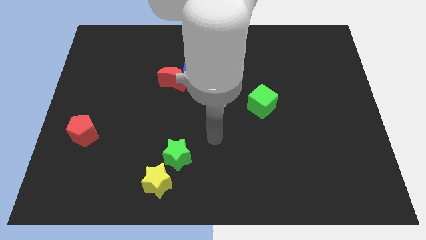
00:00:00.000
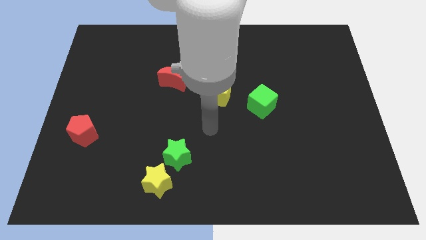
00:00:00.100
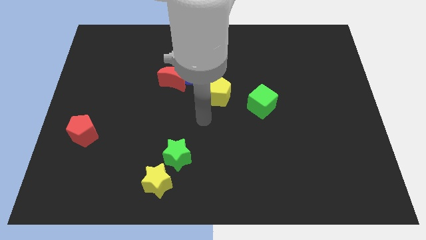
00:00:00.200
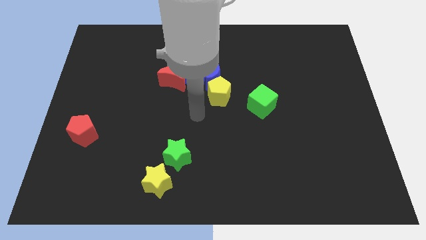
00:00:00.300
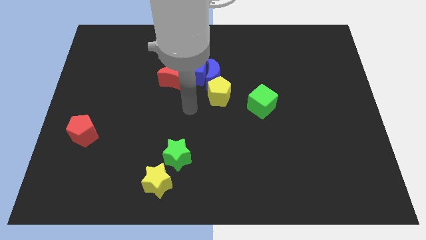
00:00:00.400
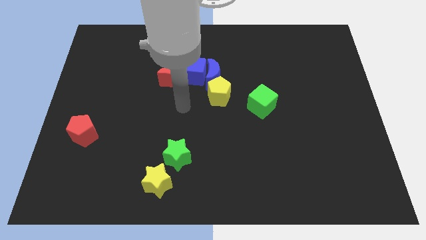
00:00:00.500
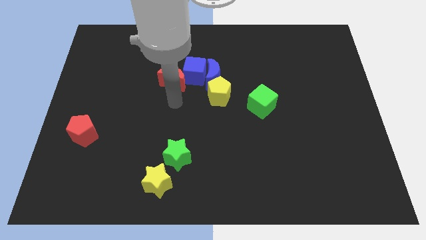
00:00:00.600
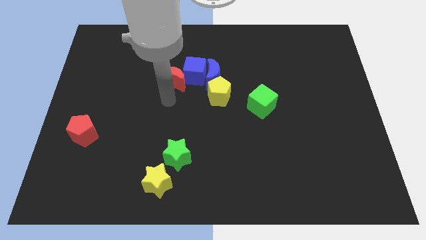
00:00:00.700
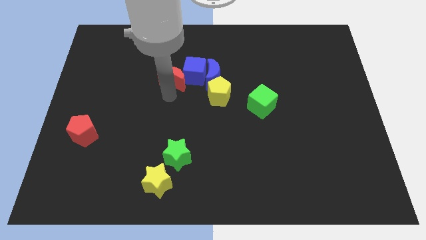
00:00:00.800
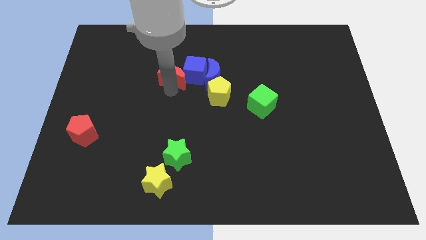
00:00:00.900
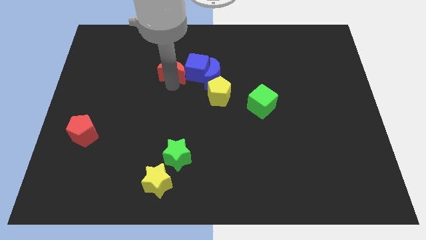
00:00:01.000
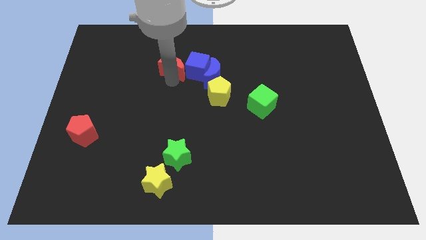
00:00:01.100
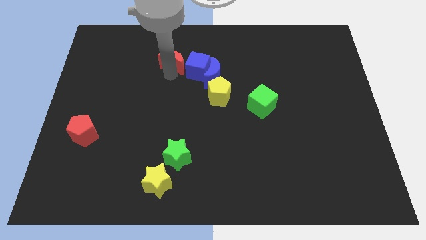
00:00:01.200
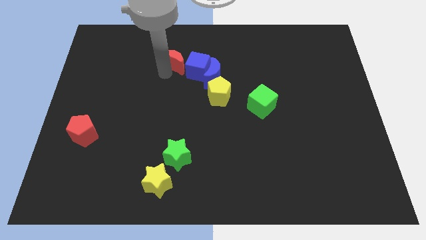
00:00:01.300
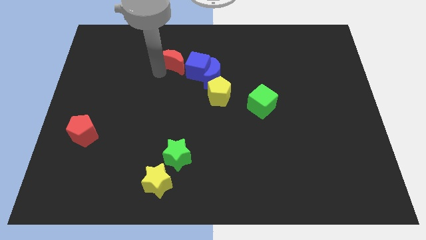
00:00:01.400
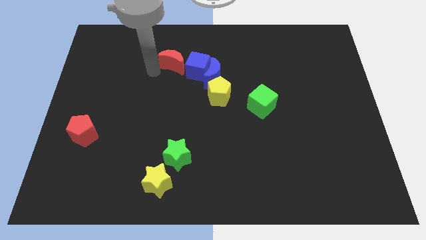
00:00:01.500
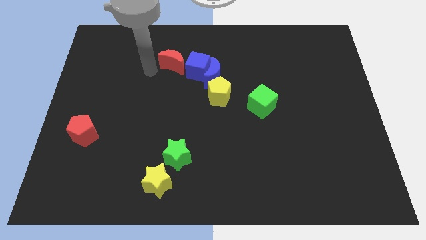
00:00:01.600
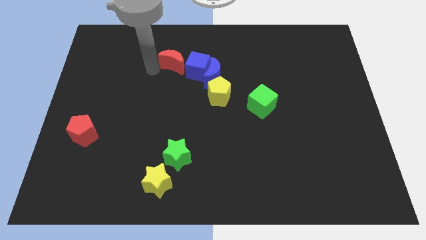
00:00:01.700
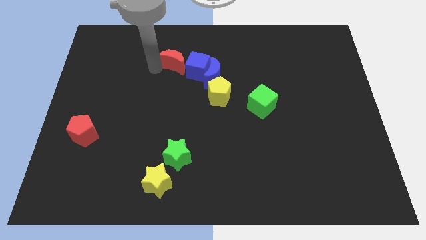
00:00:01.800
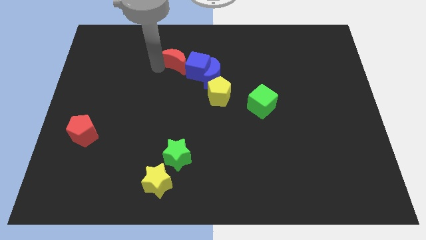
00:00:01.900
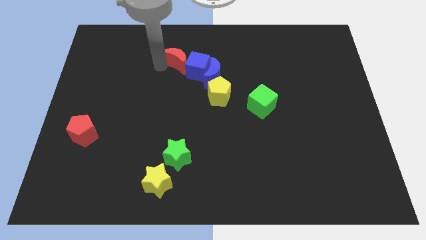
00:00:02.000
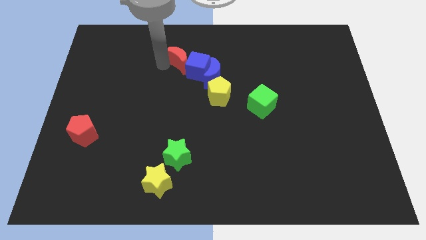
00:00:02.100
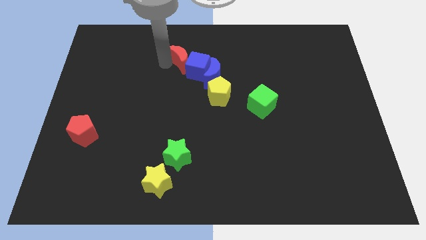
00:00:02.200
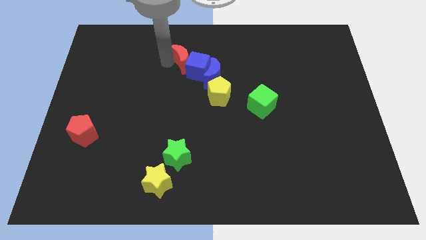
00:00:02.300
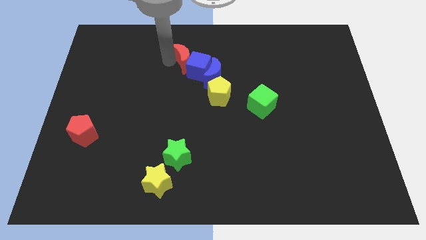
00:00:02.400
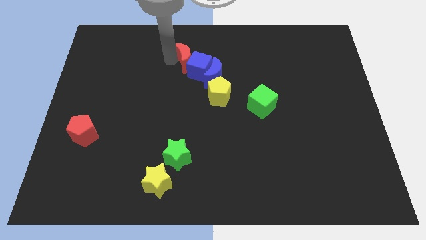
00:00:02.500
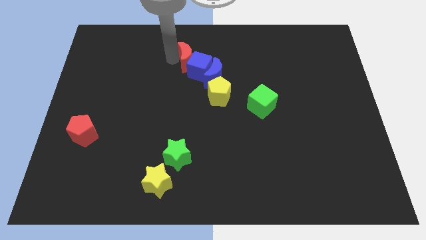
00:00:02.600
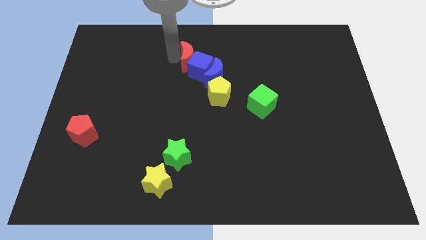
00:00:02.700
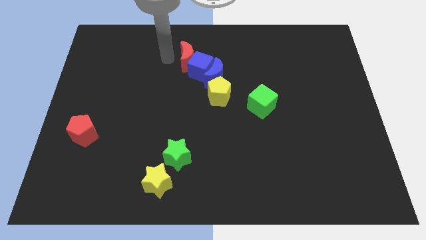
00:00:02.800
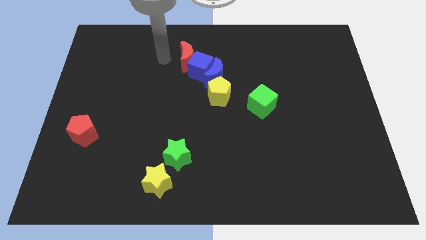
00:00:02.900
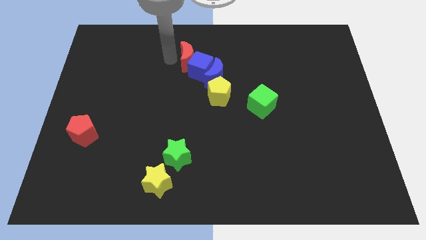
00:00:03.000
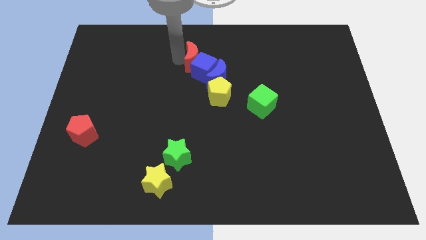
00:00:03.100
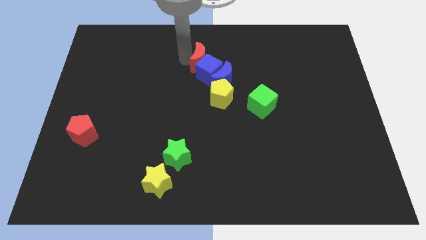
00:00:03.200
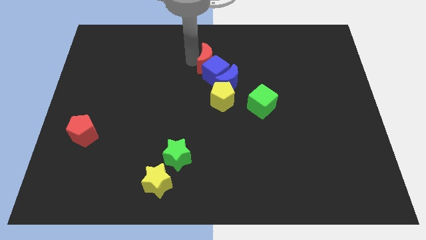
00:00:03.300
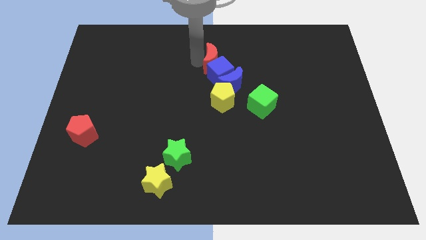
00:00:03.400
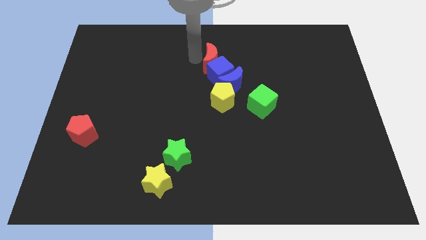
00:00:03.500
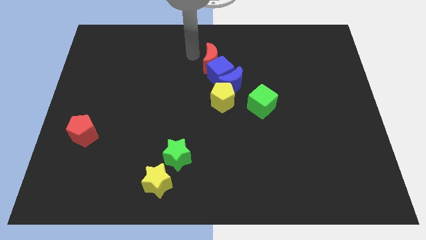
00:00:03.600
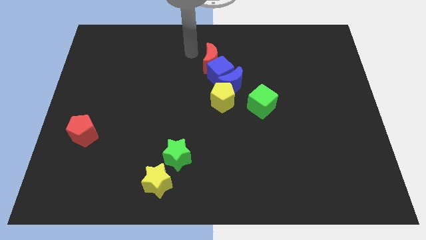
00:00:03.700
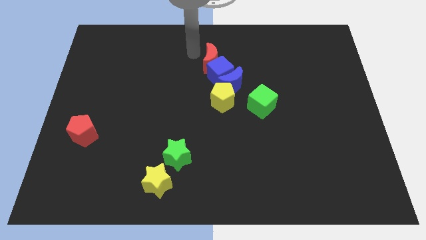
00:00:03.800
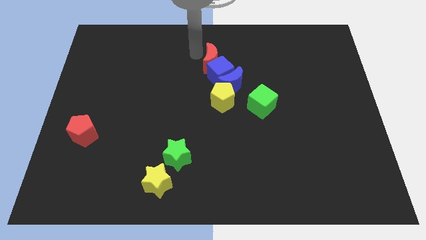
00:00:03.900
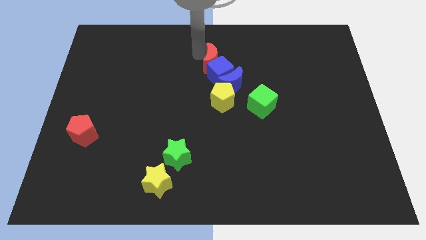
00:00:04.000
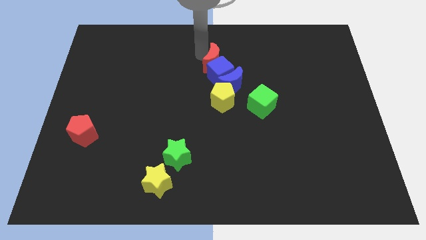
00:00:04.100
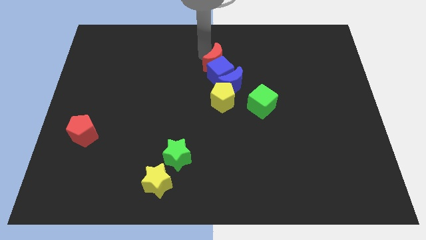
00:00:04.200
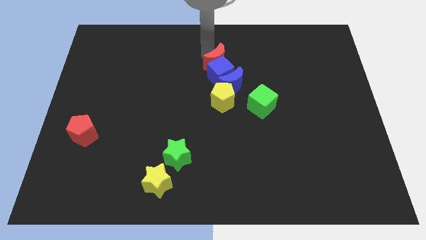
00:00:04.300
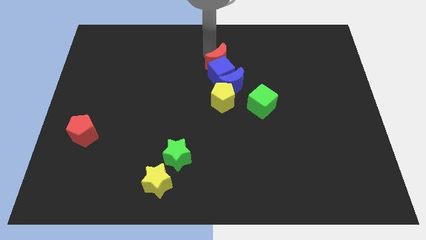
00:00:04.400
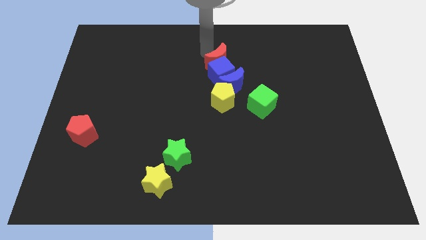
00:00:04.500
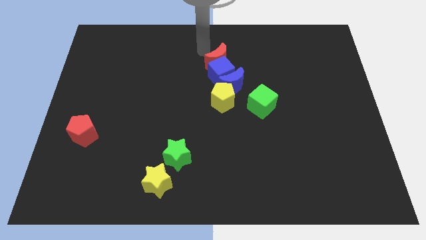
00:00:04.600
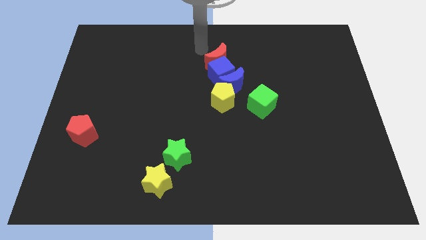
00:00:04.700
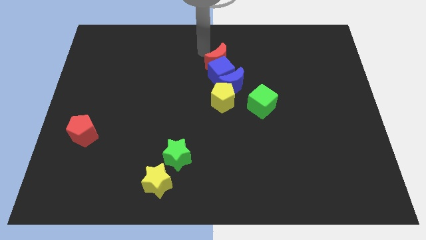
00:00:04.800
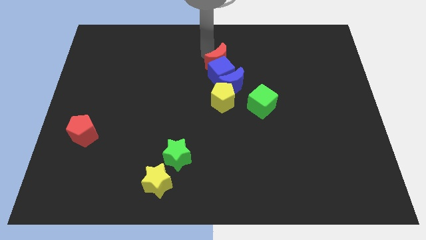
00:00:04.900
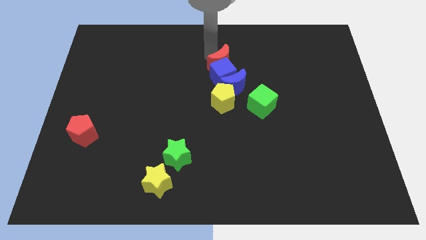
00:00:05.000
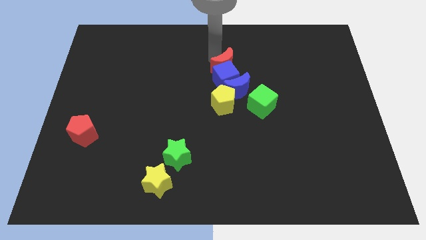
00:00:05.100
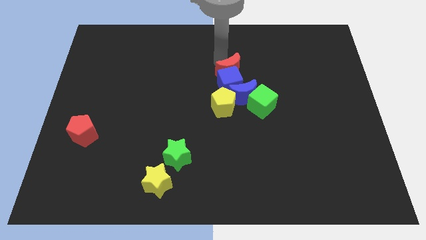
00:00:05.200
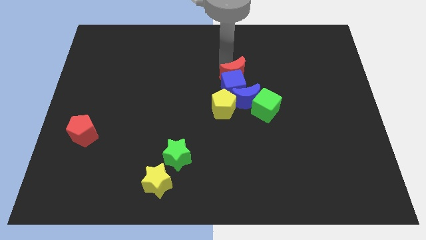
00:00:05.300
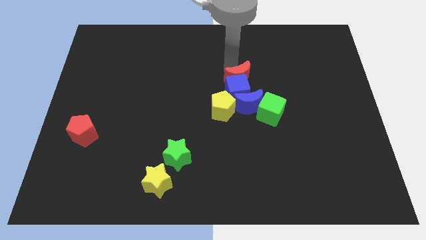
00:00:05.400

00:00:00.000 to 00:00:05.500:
move the red moon to the top right of the yellow pentagon

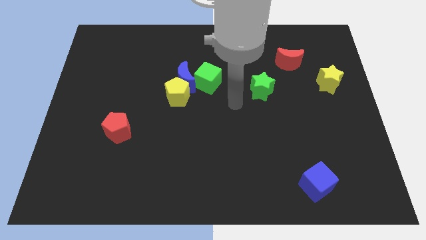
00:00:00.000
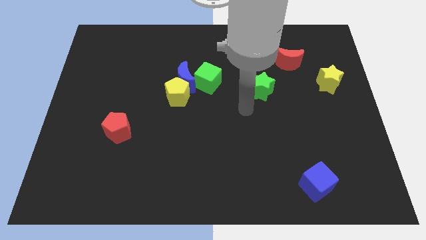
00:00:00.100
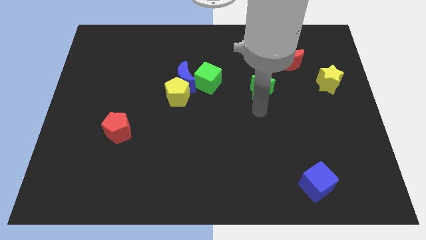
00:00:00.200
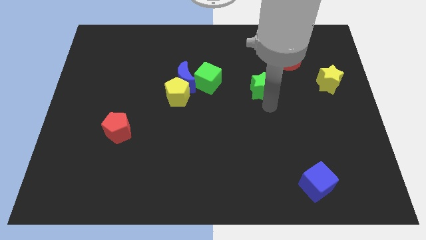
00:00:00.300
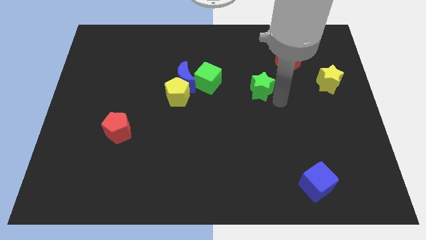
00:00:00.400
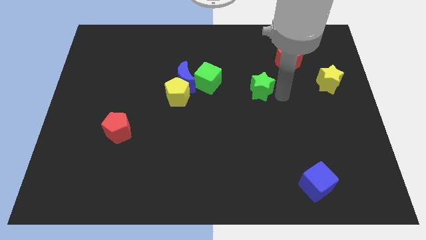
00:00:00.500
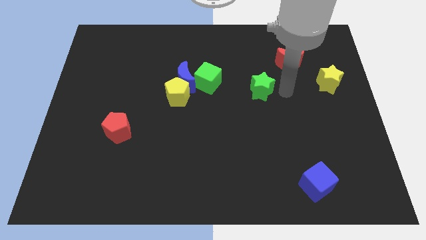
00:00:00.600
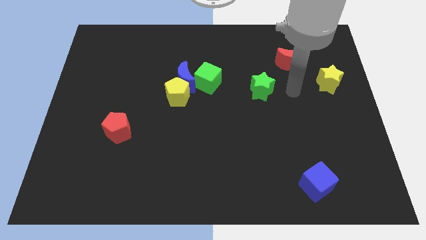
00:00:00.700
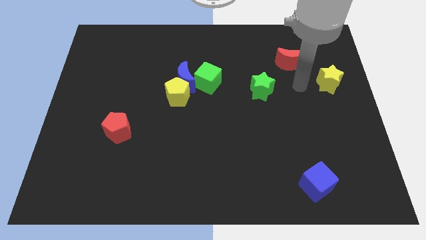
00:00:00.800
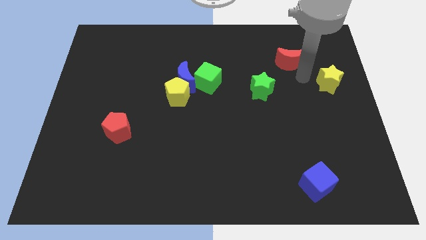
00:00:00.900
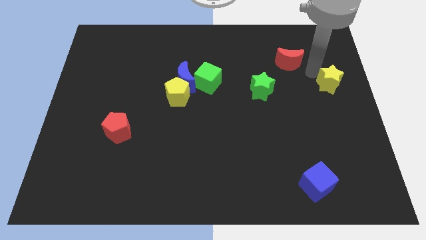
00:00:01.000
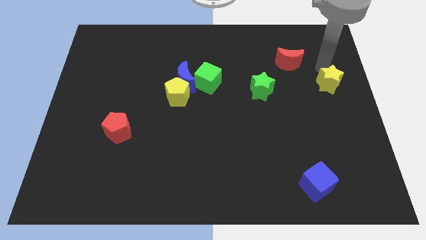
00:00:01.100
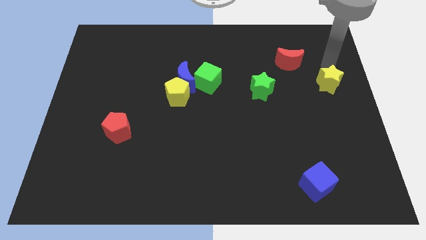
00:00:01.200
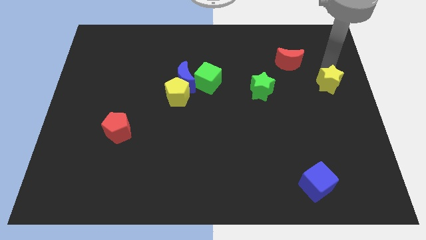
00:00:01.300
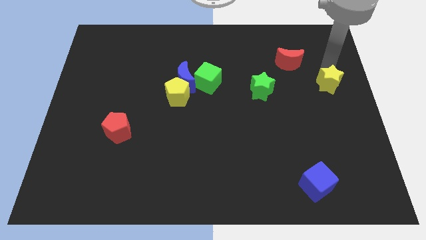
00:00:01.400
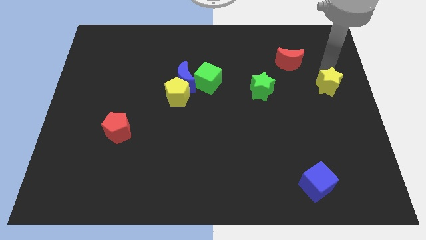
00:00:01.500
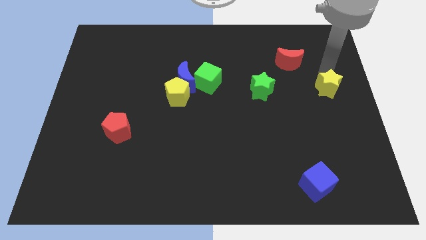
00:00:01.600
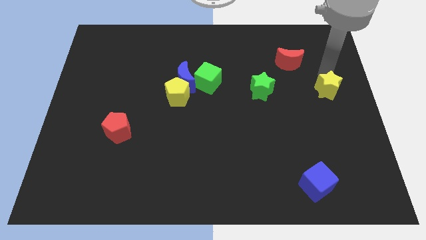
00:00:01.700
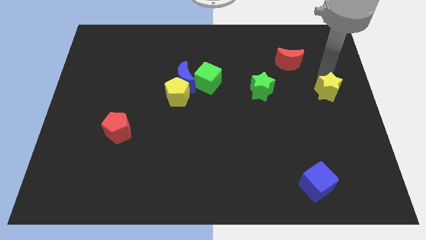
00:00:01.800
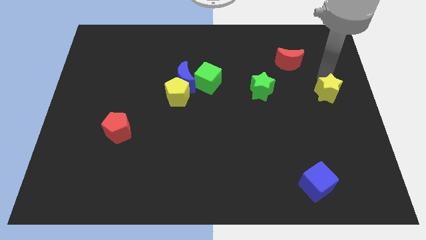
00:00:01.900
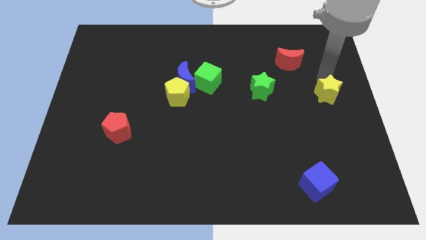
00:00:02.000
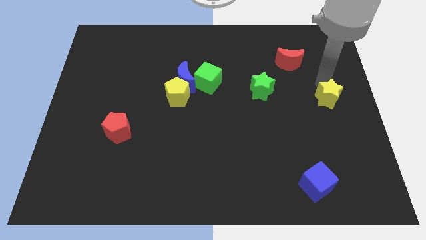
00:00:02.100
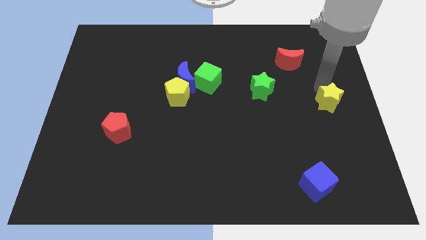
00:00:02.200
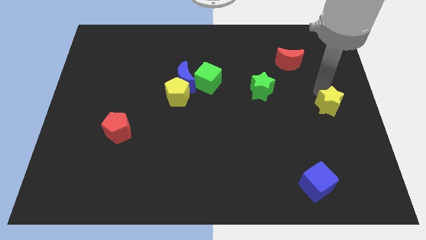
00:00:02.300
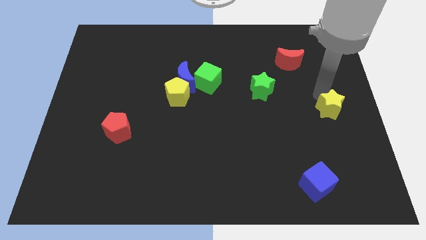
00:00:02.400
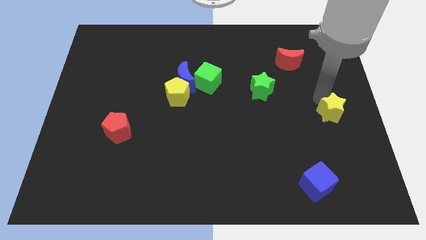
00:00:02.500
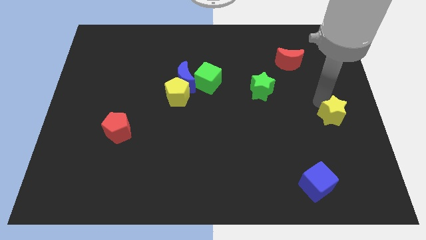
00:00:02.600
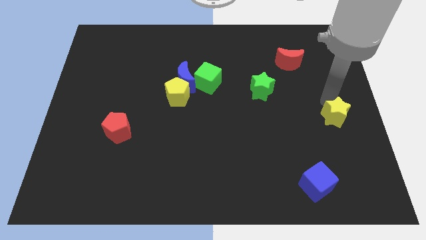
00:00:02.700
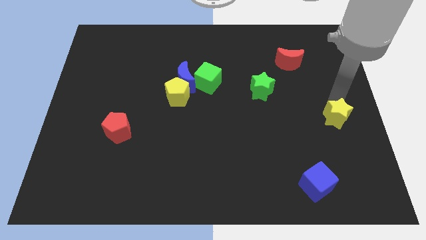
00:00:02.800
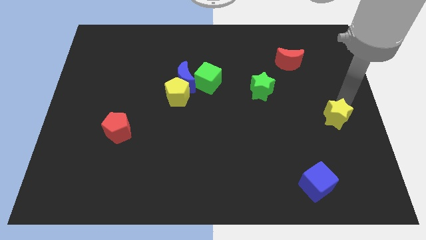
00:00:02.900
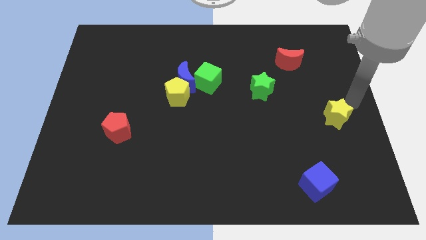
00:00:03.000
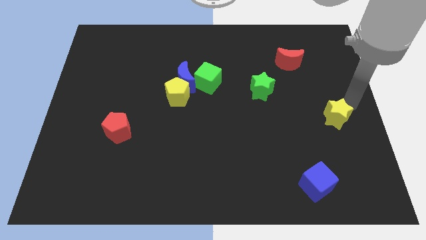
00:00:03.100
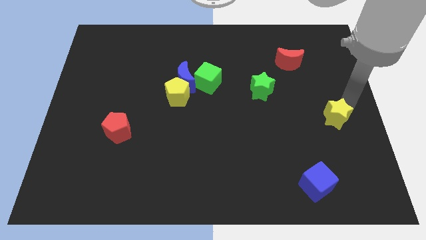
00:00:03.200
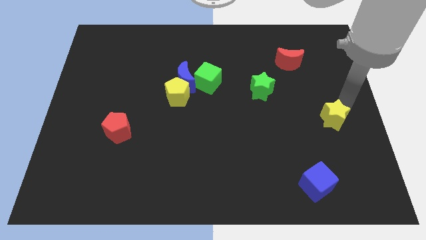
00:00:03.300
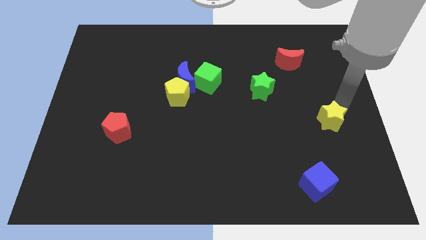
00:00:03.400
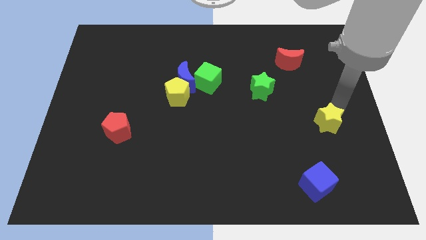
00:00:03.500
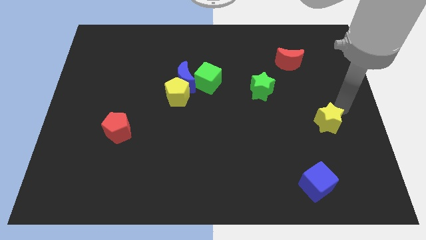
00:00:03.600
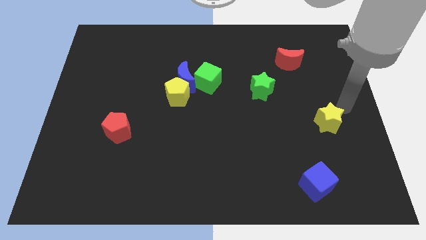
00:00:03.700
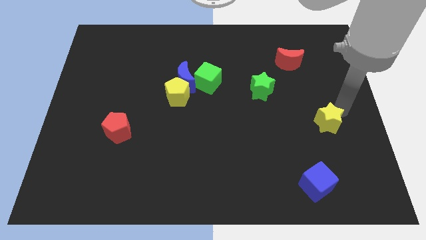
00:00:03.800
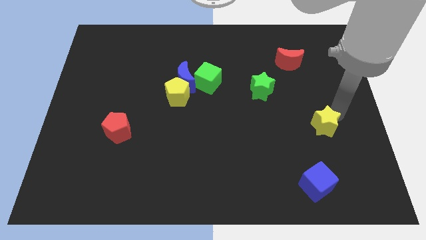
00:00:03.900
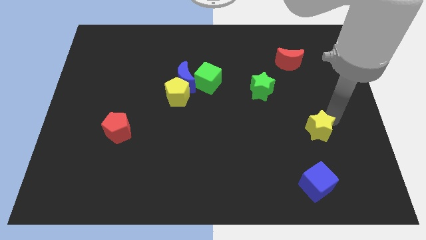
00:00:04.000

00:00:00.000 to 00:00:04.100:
push the yellow star to the top of the blue cube
